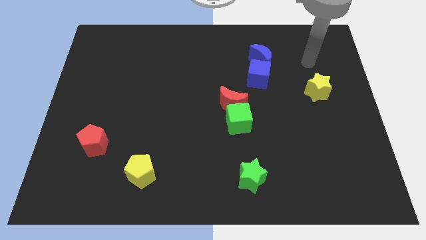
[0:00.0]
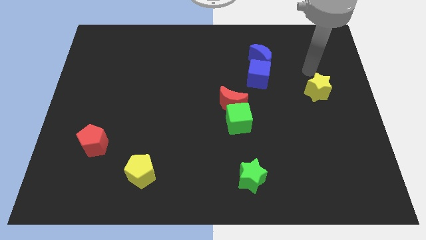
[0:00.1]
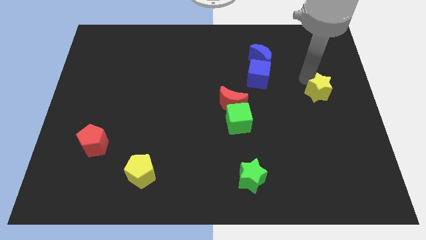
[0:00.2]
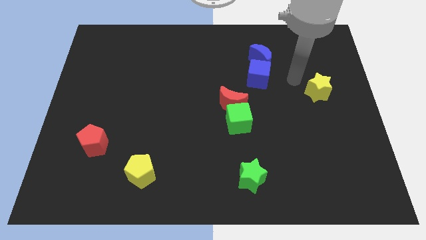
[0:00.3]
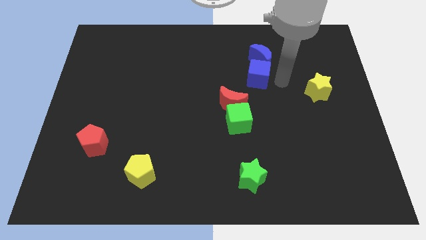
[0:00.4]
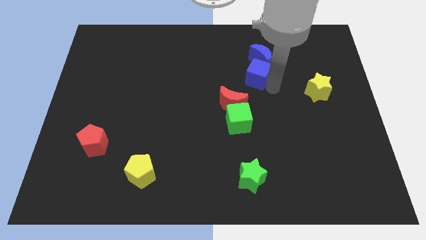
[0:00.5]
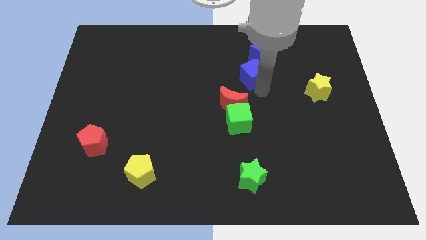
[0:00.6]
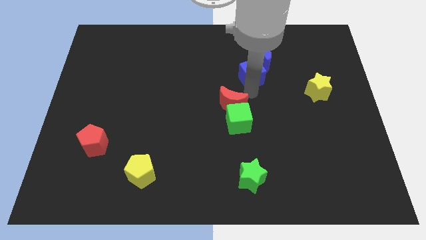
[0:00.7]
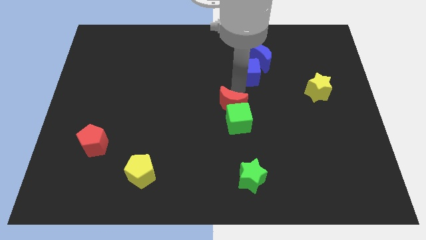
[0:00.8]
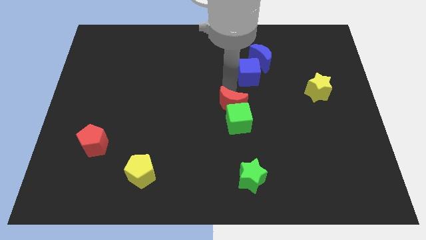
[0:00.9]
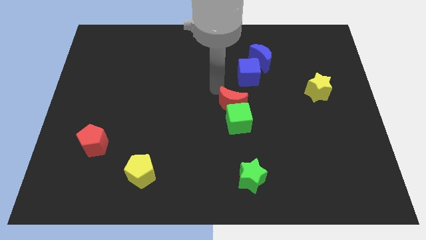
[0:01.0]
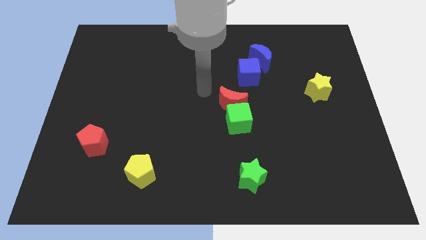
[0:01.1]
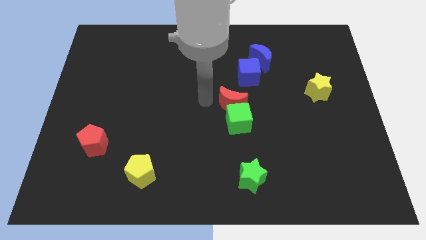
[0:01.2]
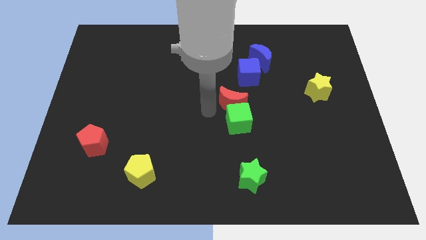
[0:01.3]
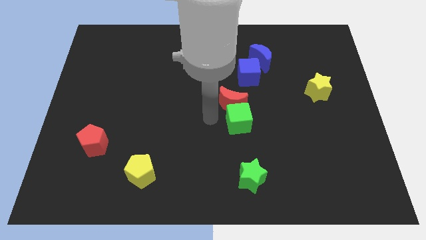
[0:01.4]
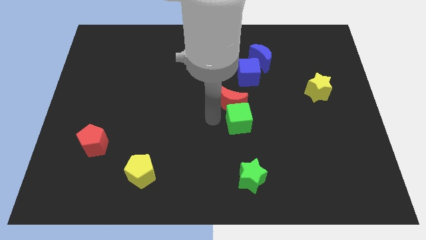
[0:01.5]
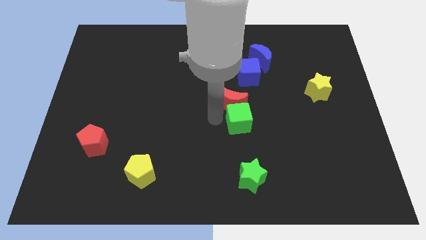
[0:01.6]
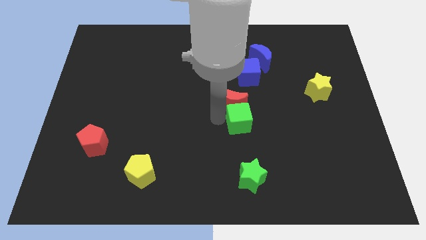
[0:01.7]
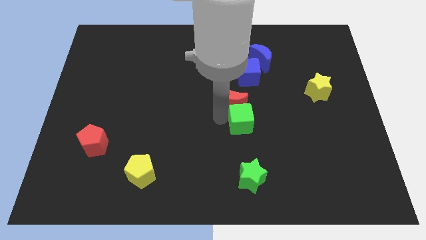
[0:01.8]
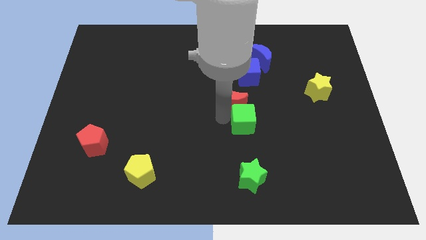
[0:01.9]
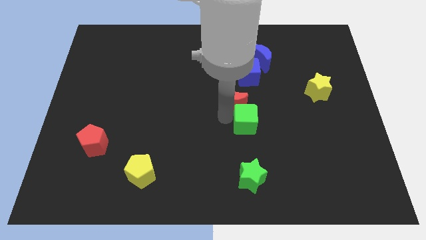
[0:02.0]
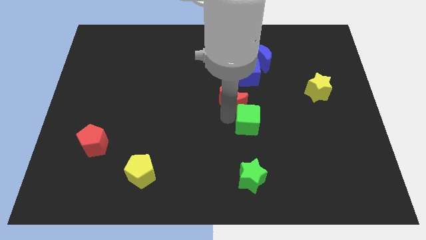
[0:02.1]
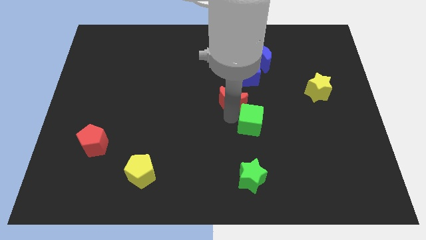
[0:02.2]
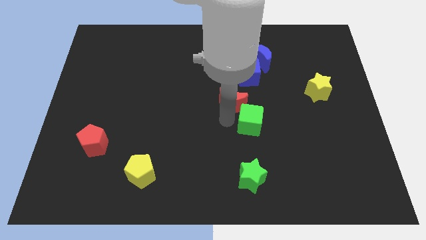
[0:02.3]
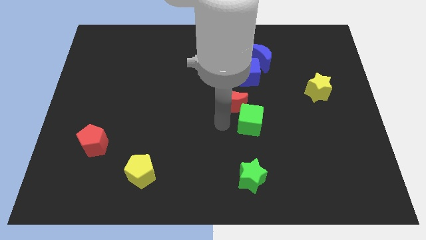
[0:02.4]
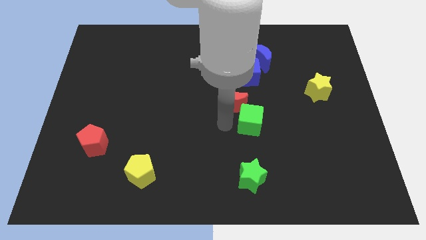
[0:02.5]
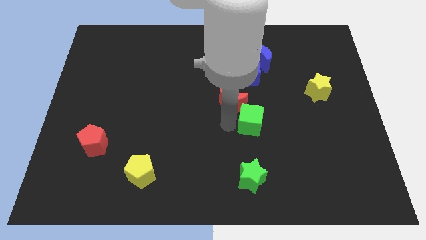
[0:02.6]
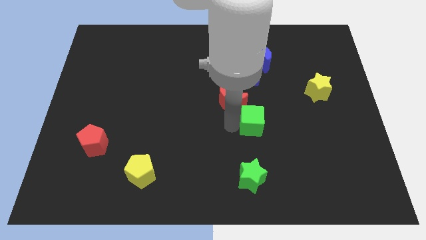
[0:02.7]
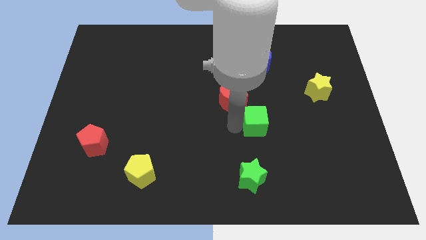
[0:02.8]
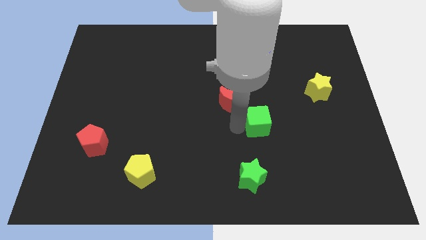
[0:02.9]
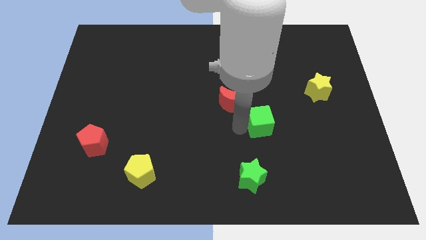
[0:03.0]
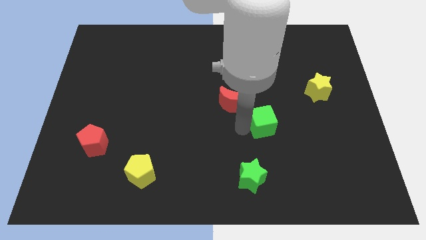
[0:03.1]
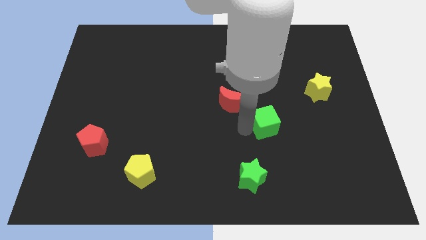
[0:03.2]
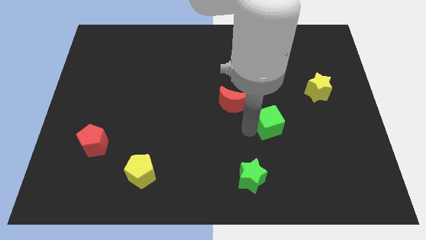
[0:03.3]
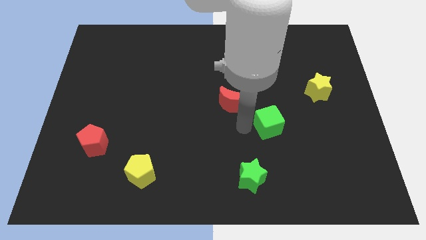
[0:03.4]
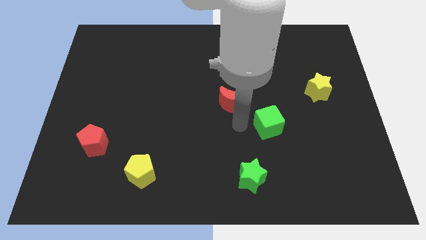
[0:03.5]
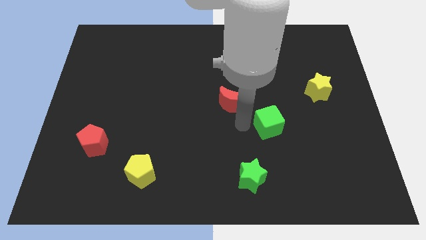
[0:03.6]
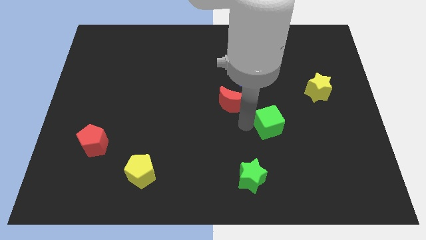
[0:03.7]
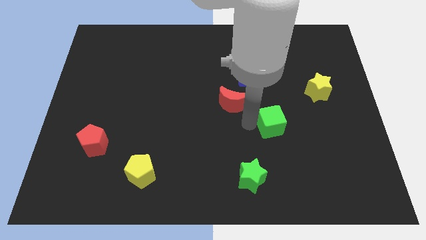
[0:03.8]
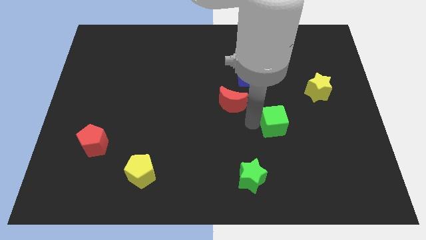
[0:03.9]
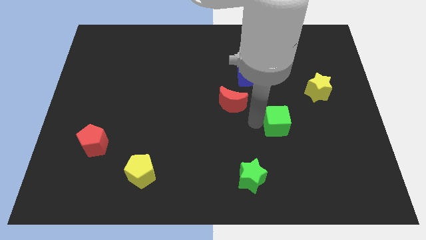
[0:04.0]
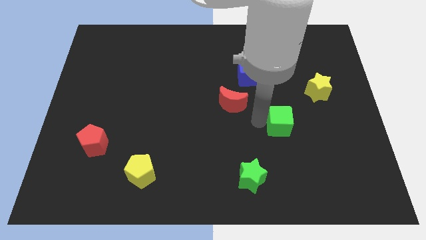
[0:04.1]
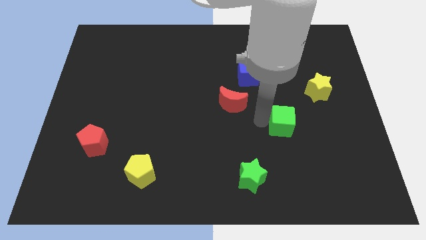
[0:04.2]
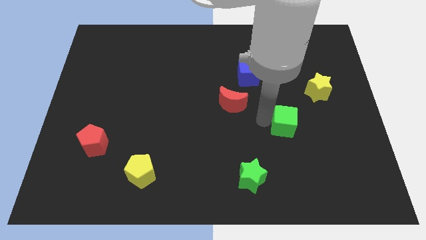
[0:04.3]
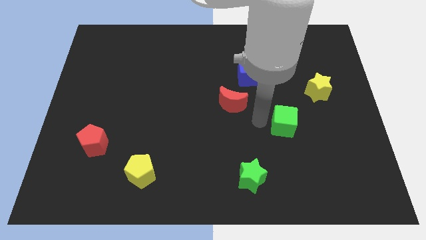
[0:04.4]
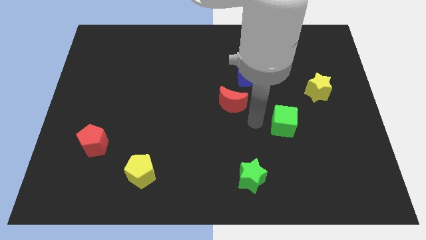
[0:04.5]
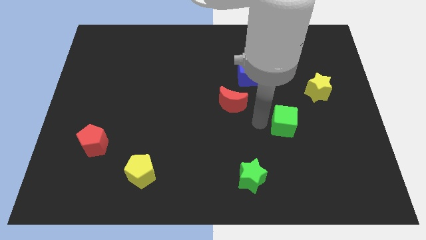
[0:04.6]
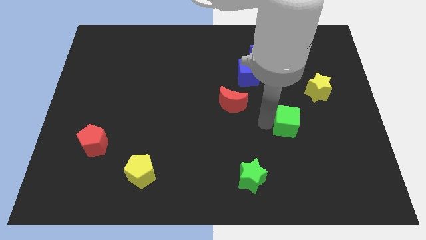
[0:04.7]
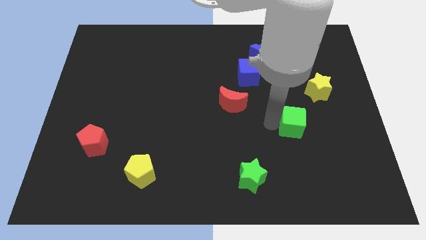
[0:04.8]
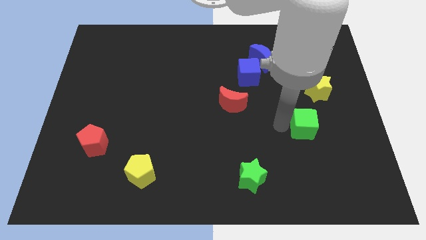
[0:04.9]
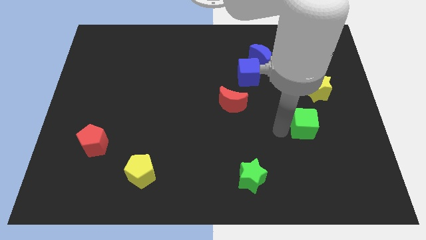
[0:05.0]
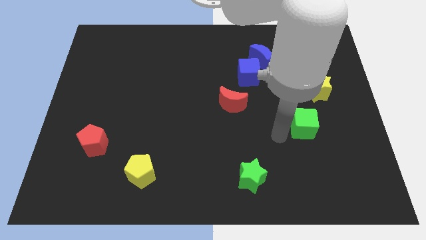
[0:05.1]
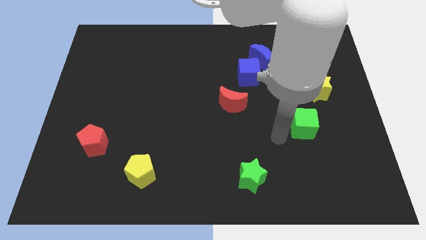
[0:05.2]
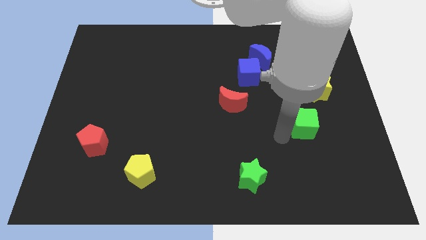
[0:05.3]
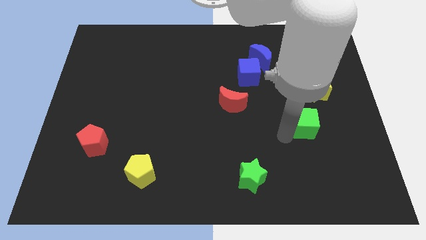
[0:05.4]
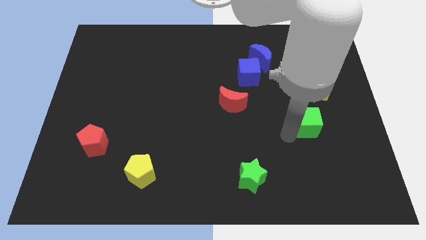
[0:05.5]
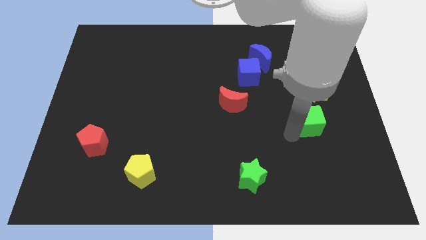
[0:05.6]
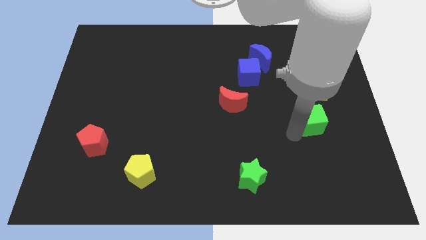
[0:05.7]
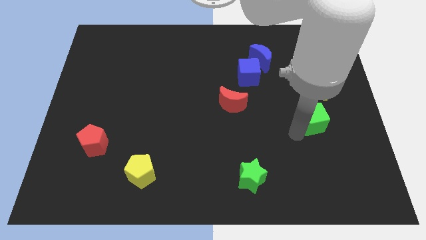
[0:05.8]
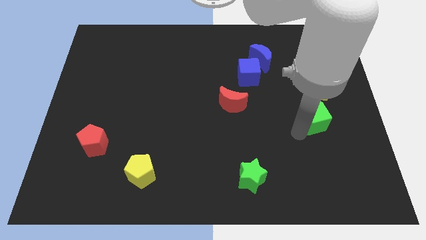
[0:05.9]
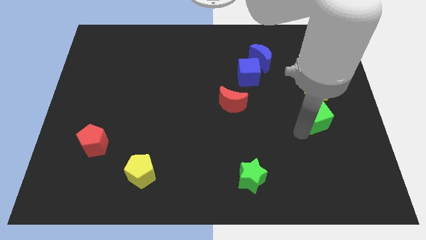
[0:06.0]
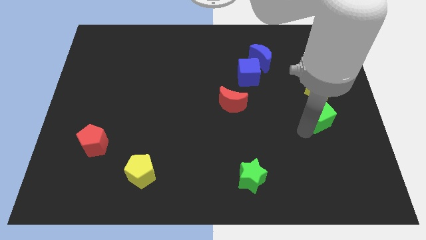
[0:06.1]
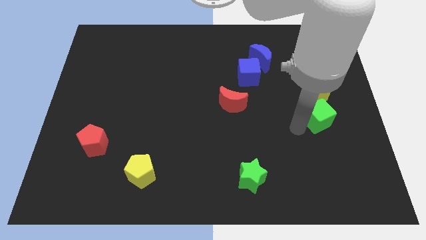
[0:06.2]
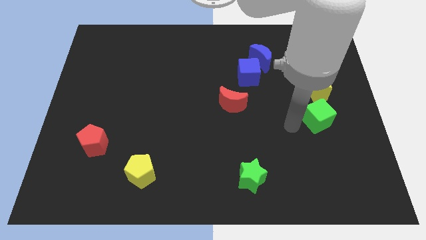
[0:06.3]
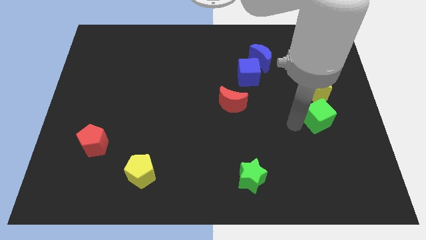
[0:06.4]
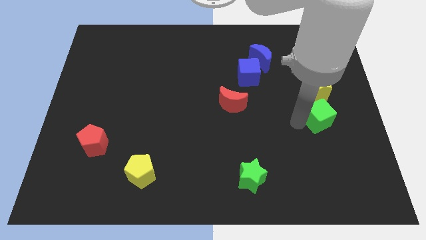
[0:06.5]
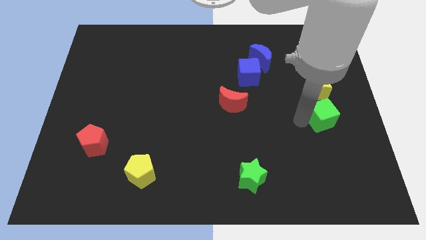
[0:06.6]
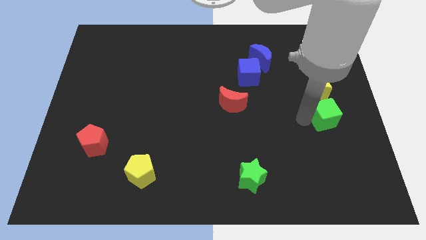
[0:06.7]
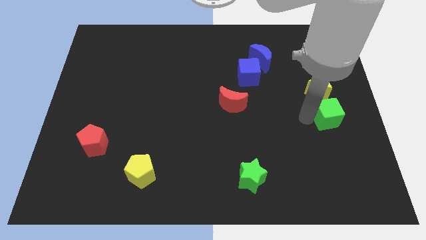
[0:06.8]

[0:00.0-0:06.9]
slide the green cube to the center right
